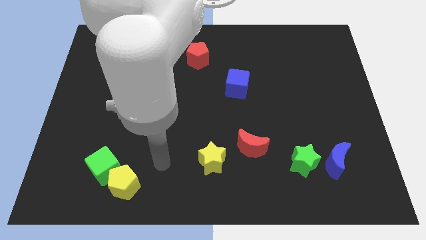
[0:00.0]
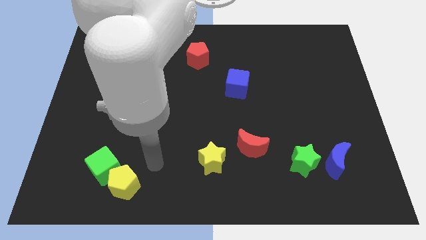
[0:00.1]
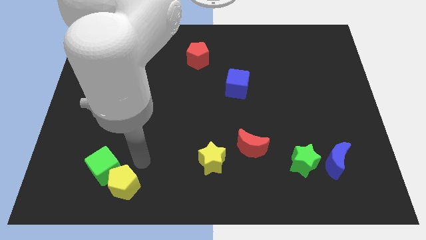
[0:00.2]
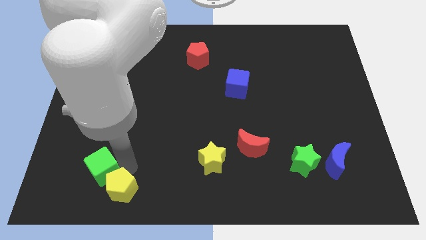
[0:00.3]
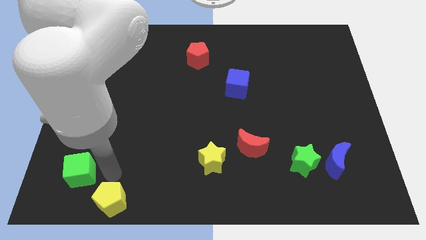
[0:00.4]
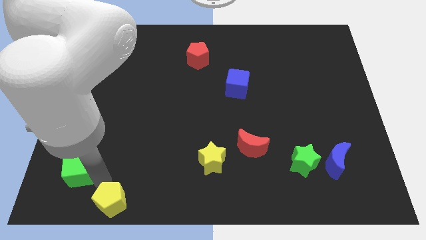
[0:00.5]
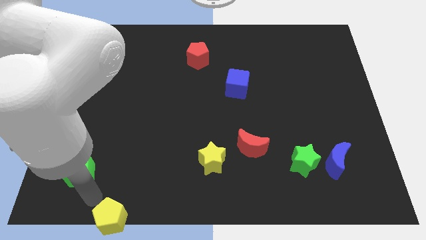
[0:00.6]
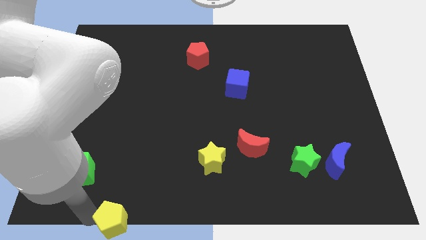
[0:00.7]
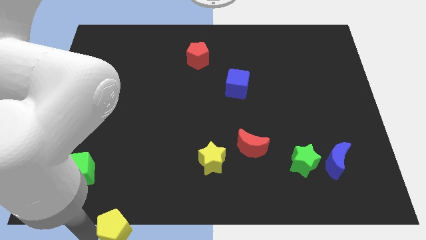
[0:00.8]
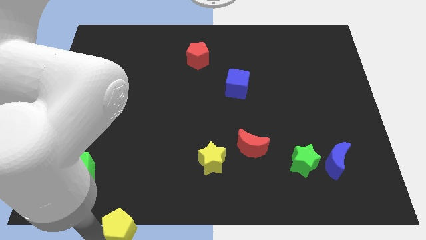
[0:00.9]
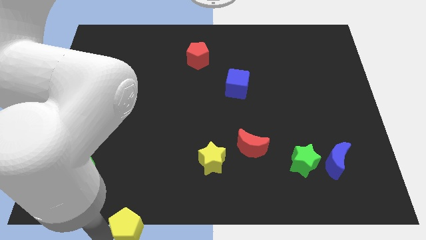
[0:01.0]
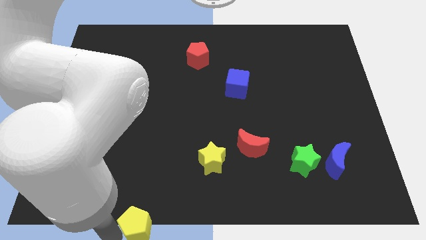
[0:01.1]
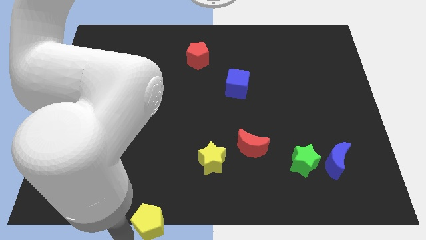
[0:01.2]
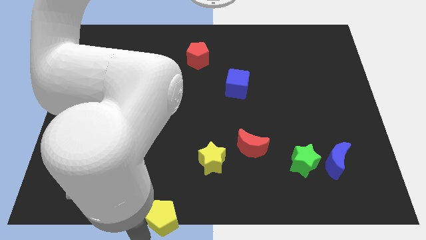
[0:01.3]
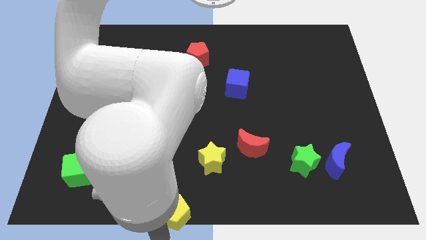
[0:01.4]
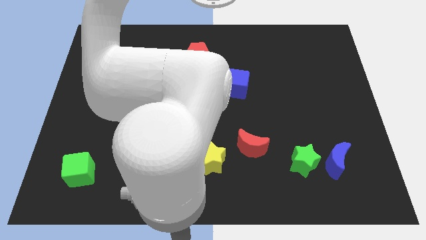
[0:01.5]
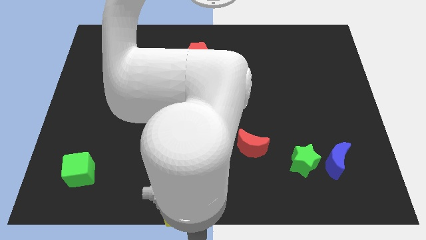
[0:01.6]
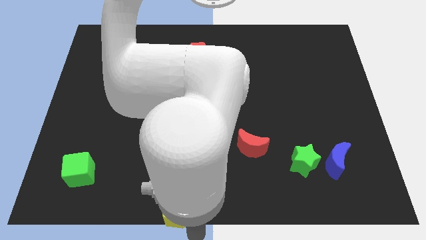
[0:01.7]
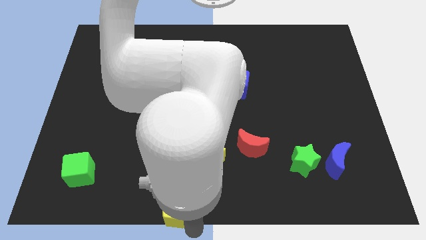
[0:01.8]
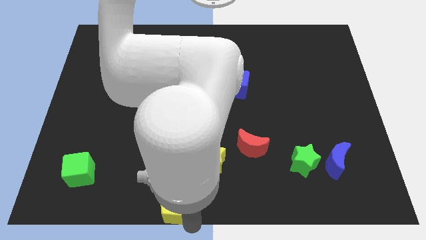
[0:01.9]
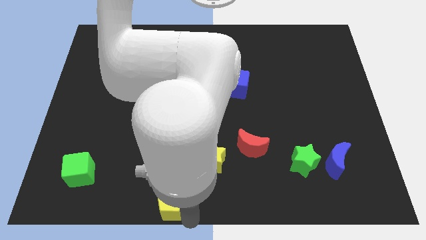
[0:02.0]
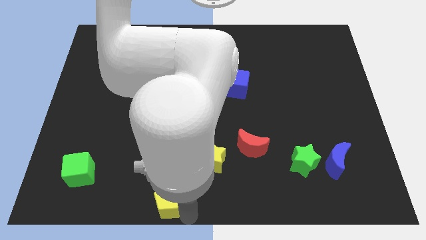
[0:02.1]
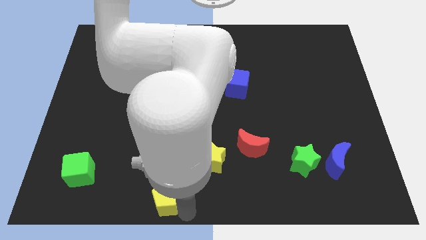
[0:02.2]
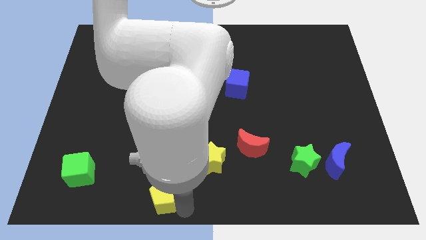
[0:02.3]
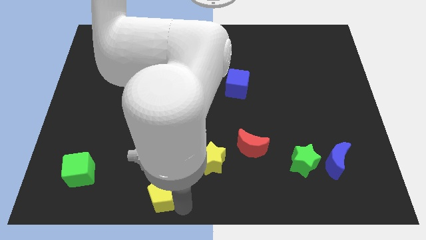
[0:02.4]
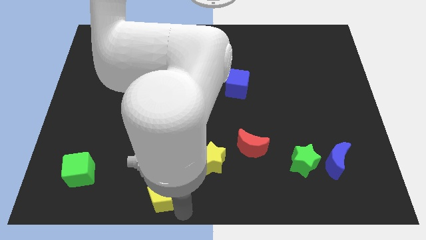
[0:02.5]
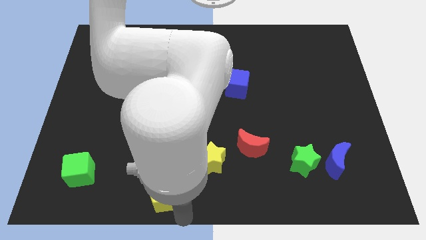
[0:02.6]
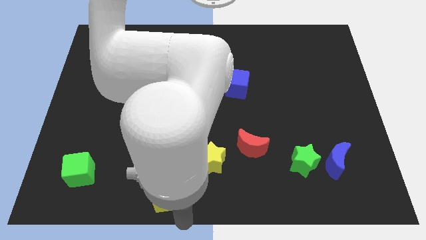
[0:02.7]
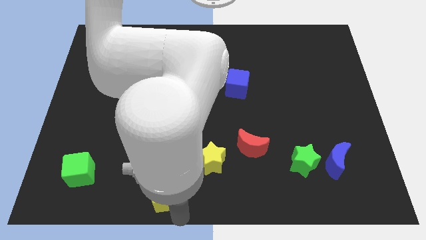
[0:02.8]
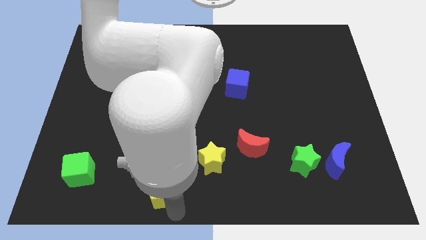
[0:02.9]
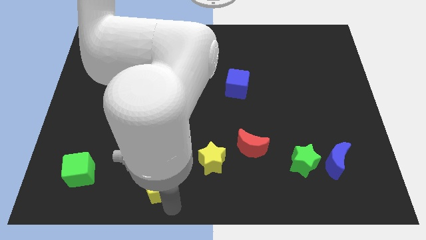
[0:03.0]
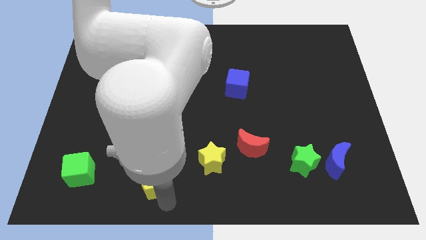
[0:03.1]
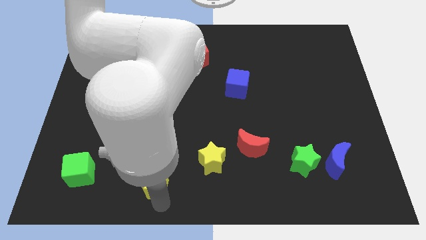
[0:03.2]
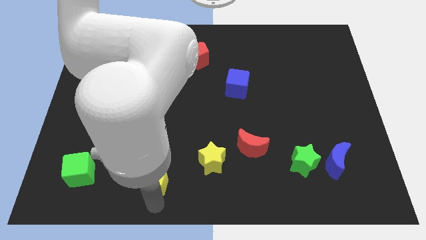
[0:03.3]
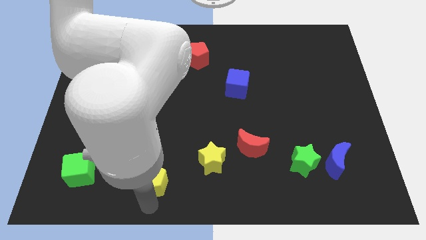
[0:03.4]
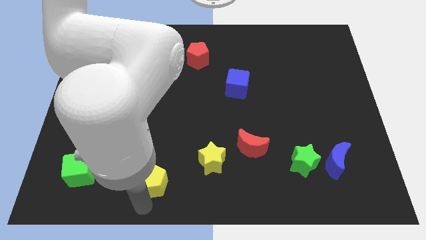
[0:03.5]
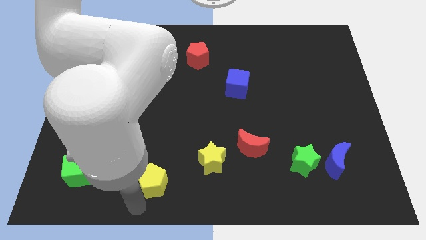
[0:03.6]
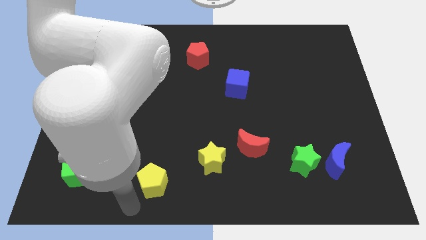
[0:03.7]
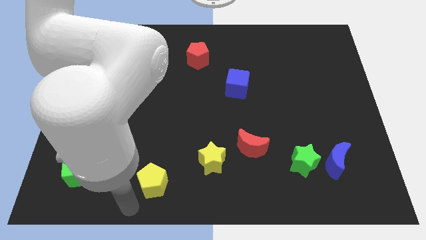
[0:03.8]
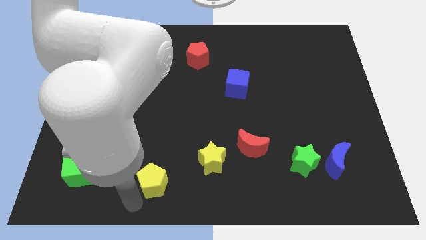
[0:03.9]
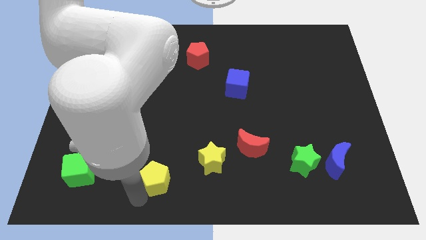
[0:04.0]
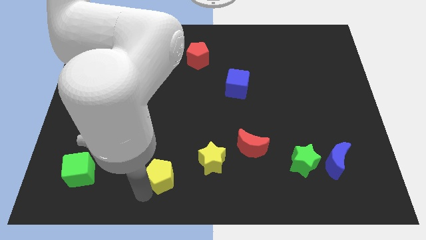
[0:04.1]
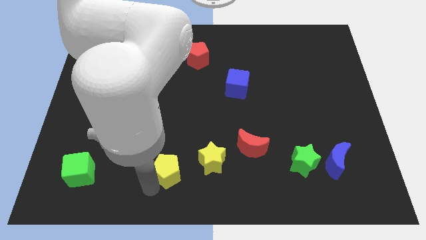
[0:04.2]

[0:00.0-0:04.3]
slide the yellow pentagon upwards and to the right a little bit

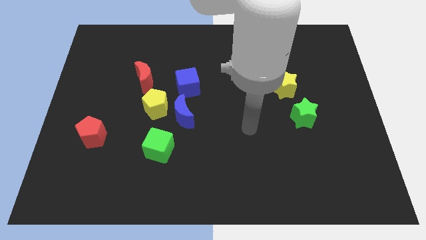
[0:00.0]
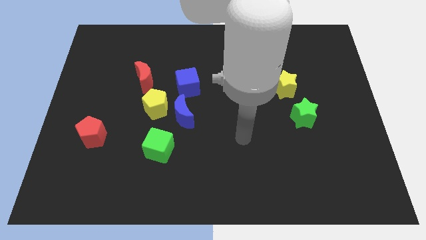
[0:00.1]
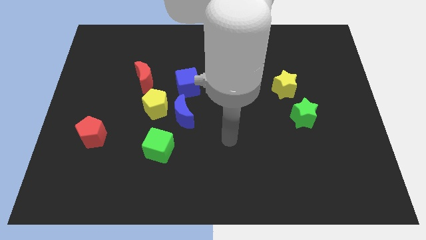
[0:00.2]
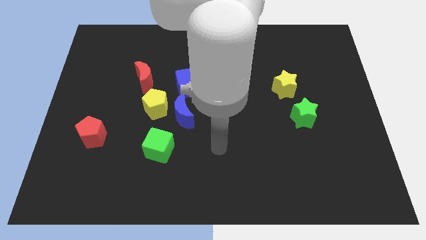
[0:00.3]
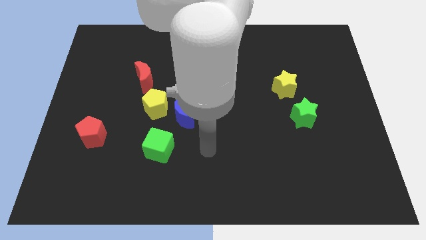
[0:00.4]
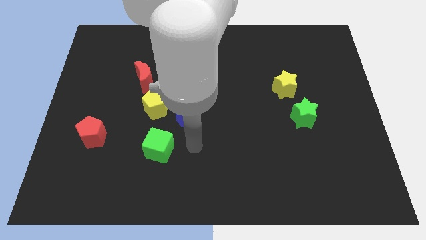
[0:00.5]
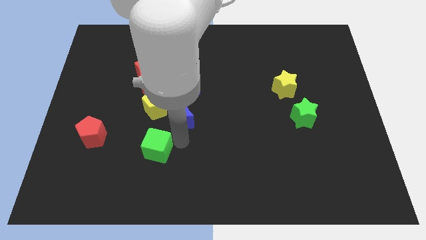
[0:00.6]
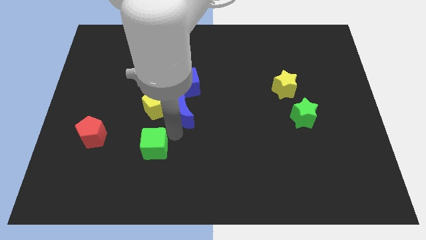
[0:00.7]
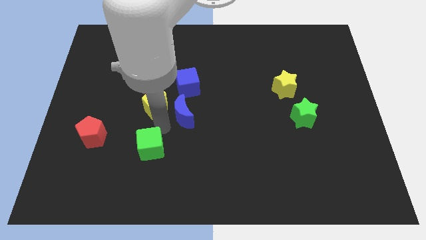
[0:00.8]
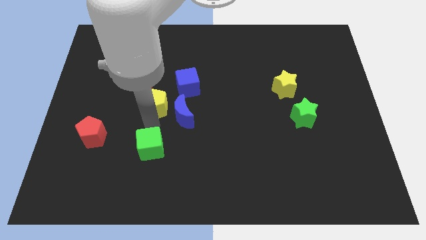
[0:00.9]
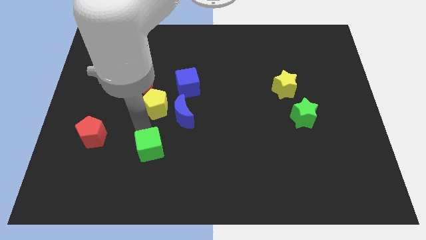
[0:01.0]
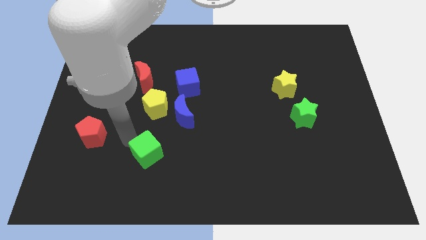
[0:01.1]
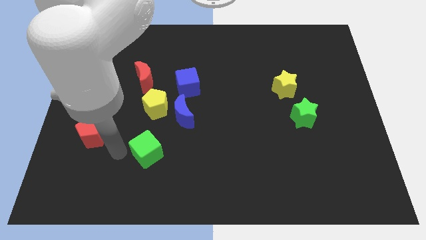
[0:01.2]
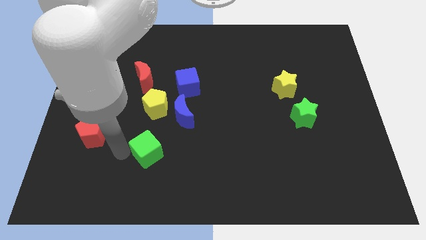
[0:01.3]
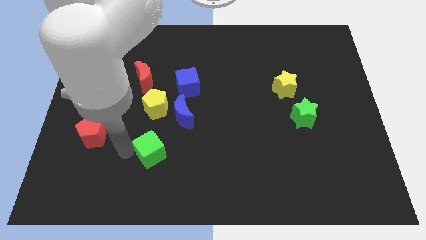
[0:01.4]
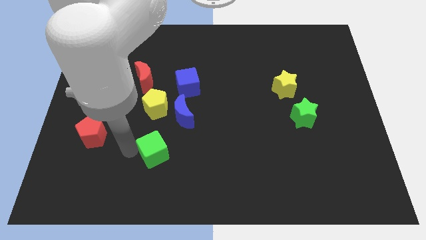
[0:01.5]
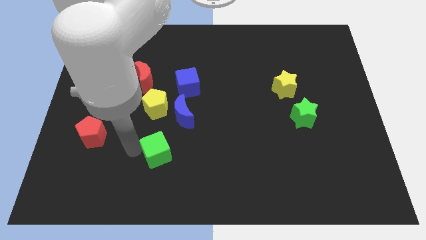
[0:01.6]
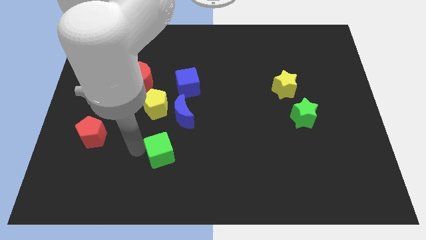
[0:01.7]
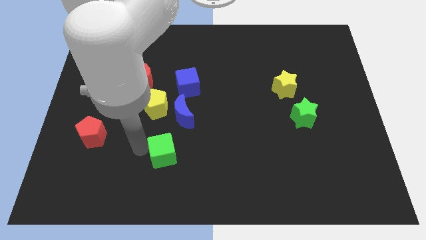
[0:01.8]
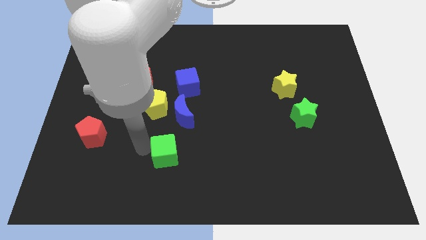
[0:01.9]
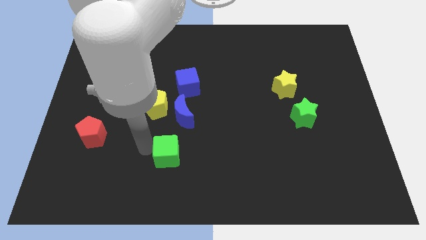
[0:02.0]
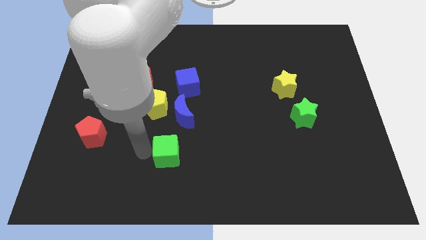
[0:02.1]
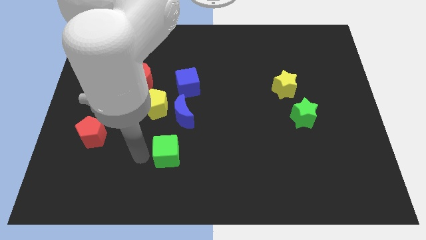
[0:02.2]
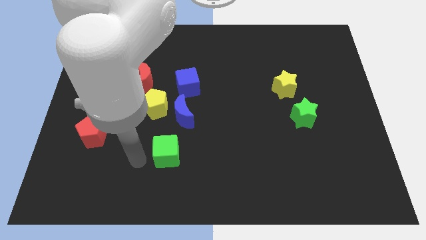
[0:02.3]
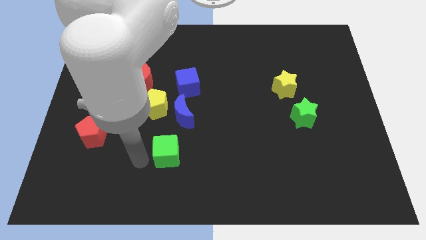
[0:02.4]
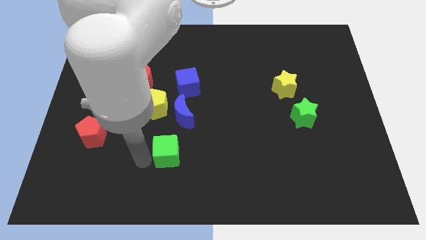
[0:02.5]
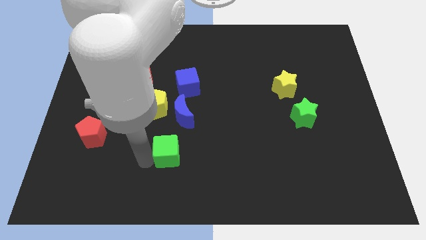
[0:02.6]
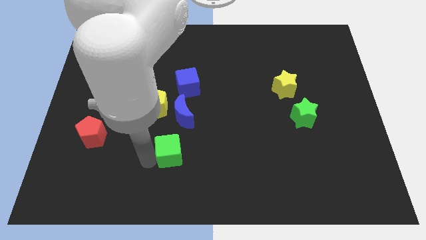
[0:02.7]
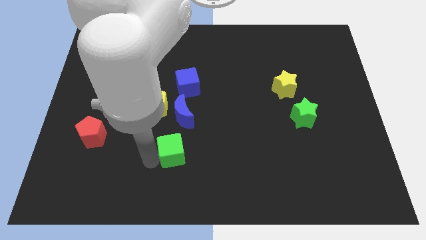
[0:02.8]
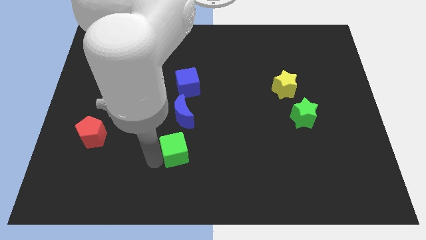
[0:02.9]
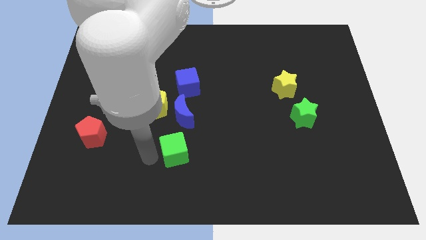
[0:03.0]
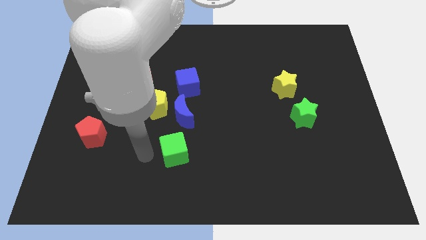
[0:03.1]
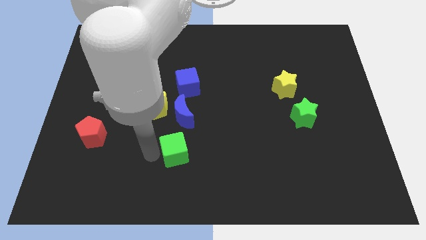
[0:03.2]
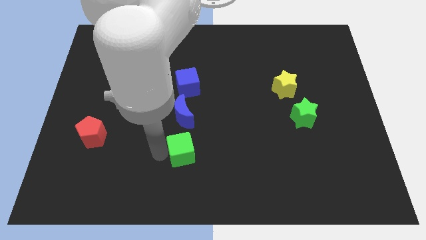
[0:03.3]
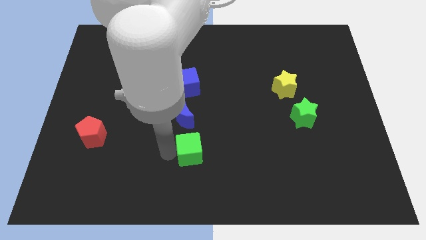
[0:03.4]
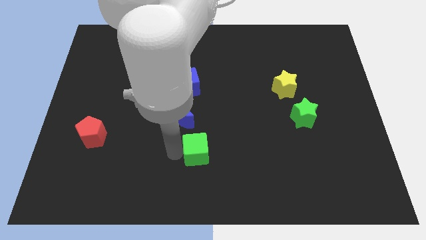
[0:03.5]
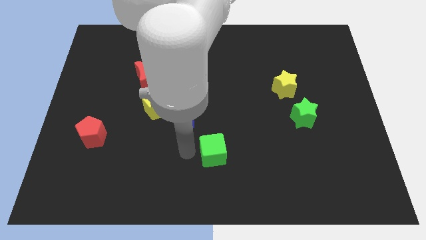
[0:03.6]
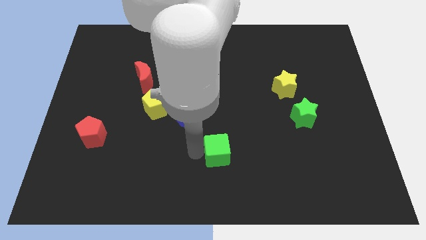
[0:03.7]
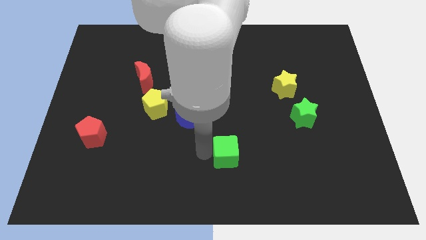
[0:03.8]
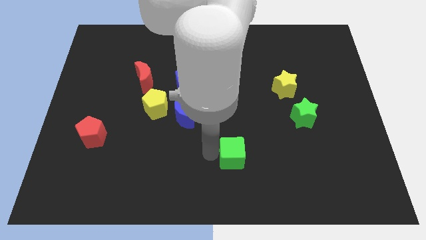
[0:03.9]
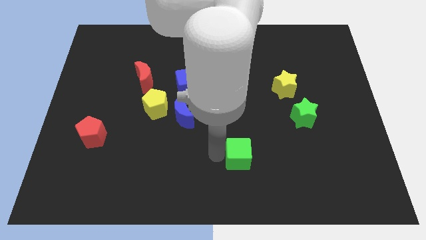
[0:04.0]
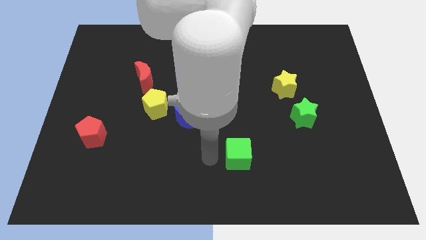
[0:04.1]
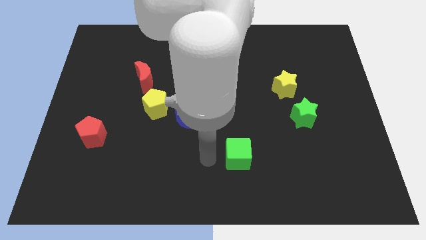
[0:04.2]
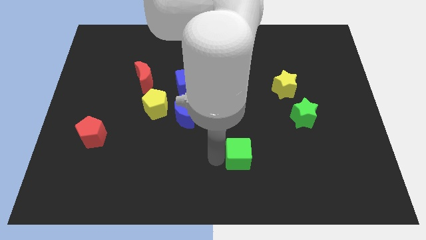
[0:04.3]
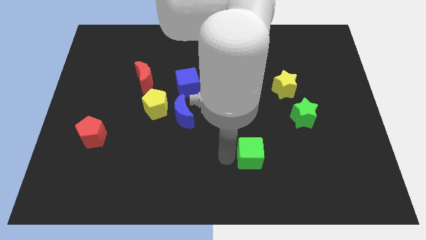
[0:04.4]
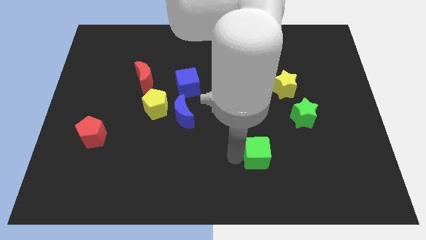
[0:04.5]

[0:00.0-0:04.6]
slide the green cube right
